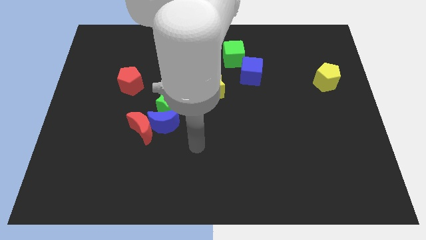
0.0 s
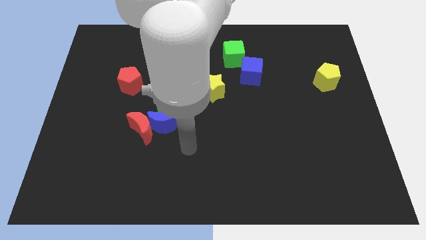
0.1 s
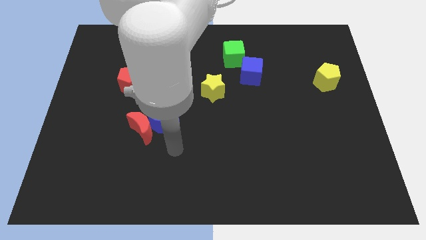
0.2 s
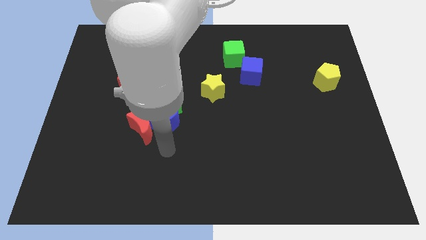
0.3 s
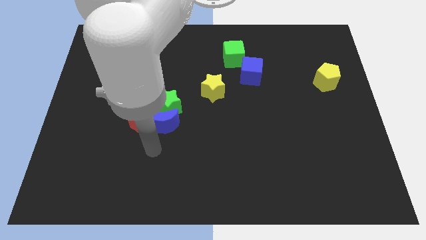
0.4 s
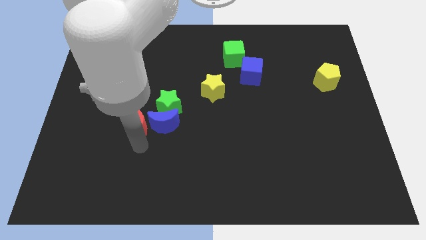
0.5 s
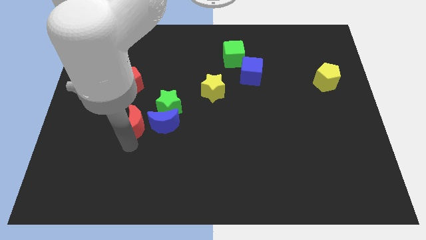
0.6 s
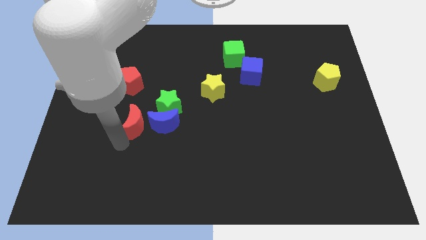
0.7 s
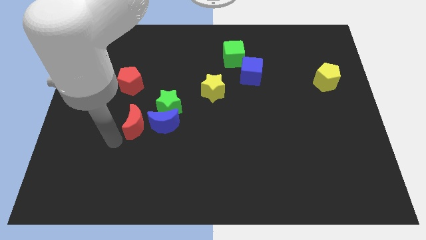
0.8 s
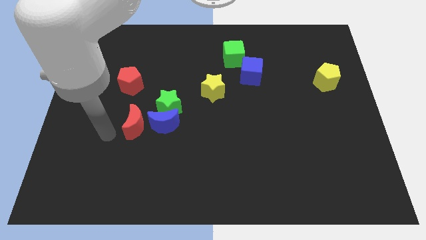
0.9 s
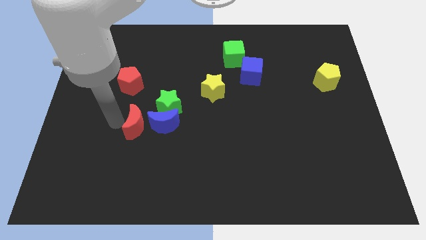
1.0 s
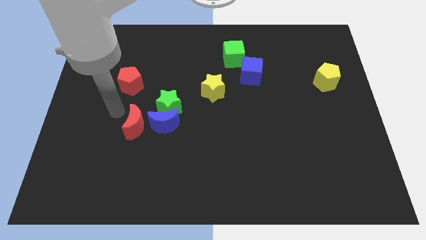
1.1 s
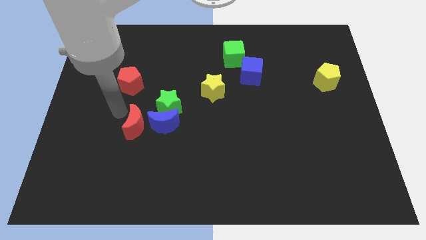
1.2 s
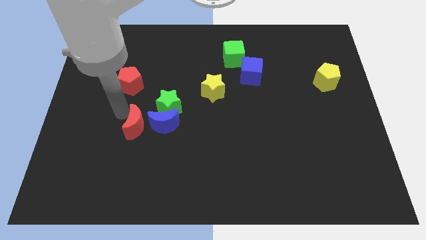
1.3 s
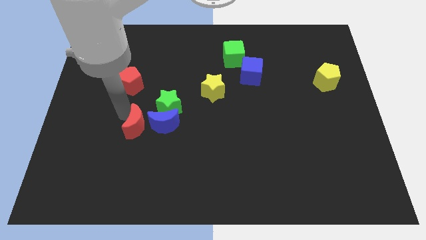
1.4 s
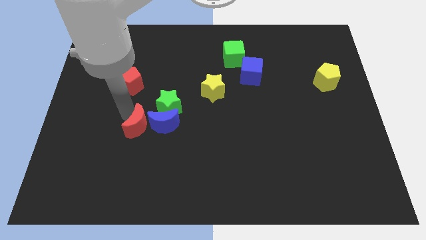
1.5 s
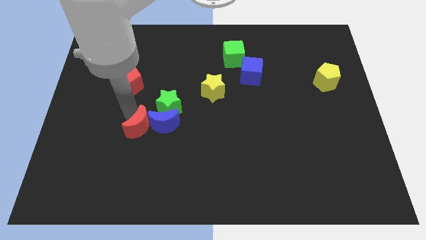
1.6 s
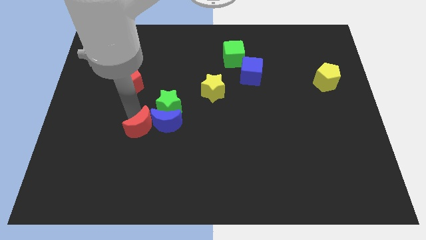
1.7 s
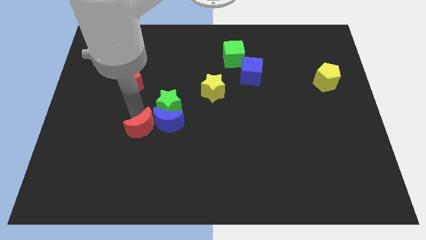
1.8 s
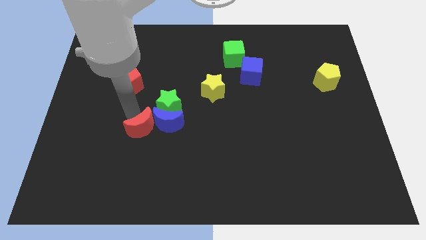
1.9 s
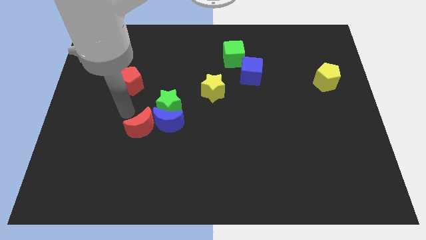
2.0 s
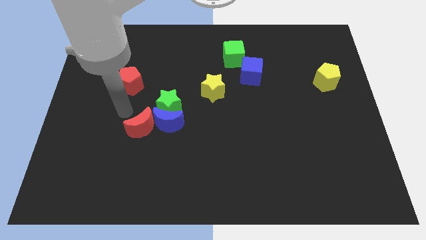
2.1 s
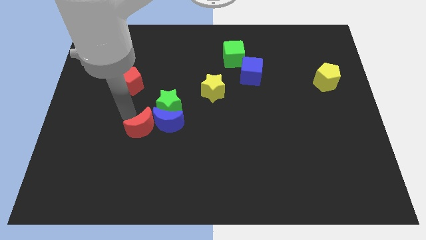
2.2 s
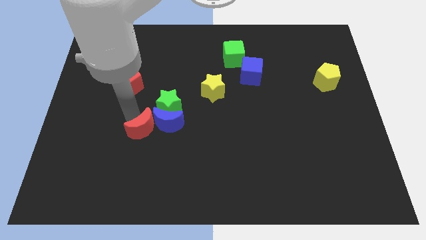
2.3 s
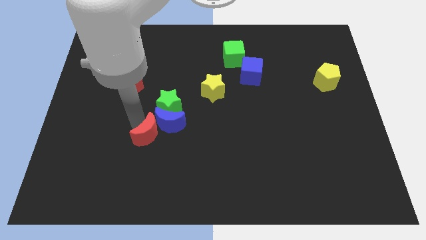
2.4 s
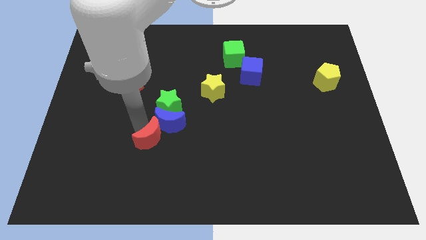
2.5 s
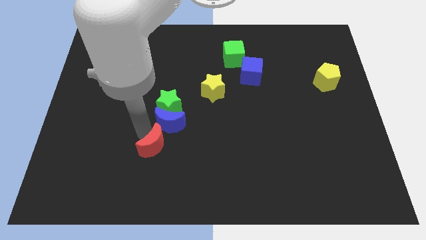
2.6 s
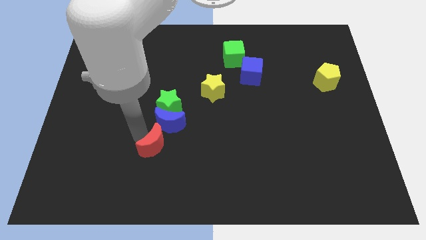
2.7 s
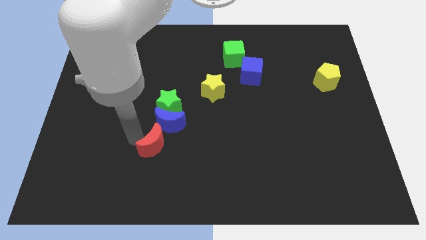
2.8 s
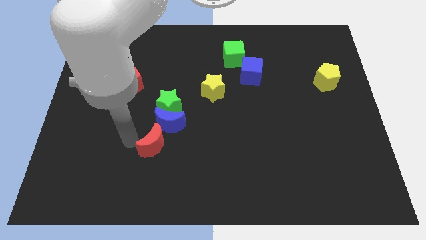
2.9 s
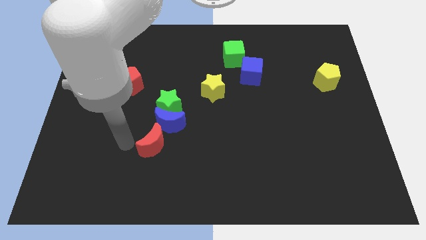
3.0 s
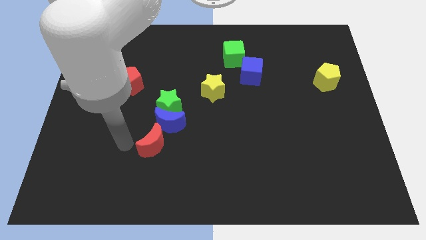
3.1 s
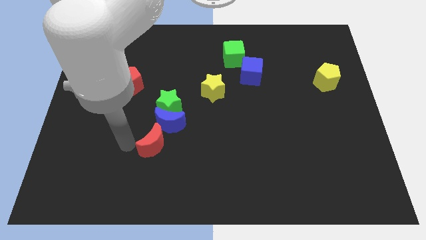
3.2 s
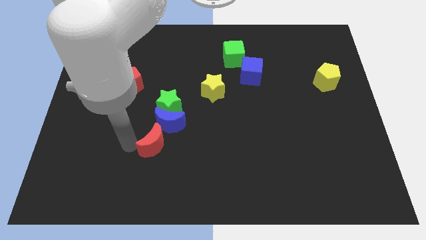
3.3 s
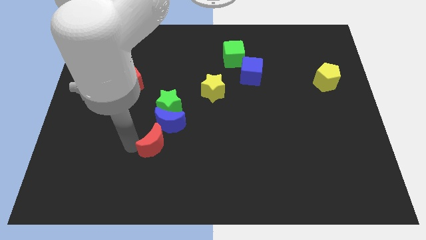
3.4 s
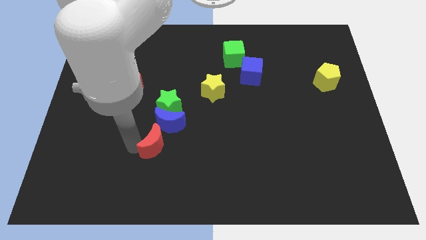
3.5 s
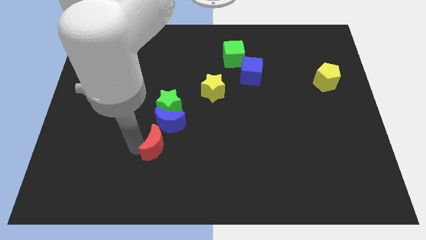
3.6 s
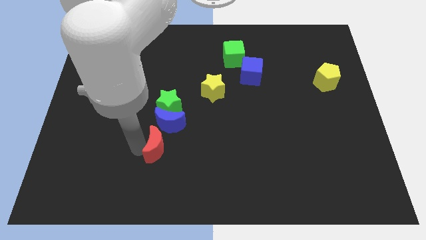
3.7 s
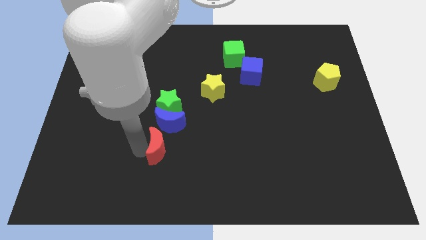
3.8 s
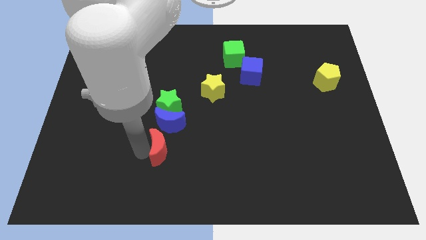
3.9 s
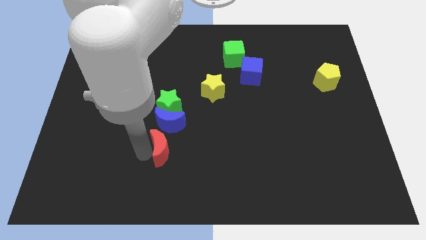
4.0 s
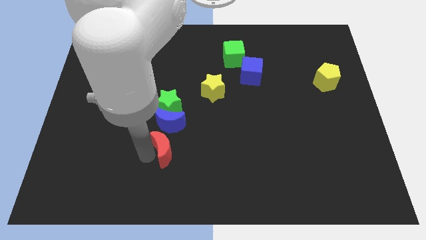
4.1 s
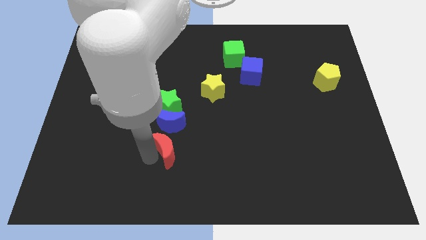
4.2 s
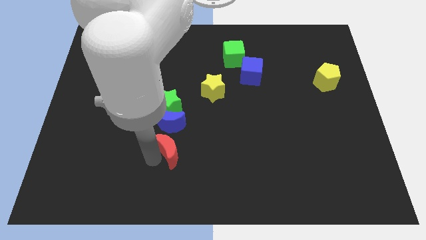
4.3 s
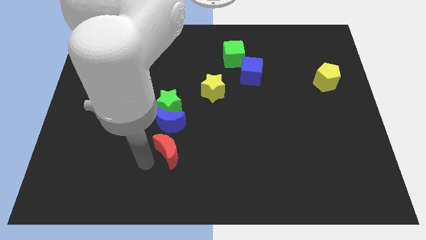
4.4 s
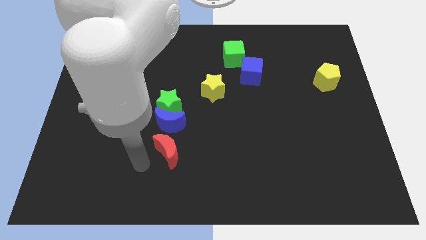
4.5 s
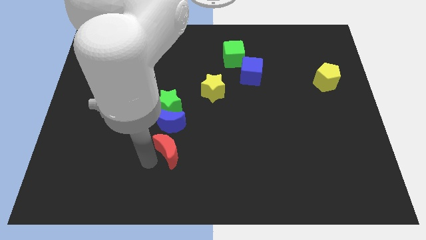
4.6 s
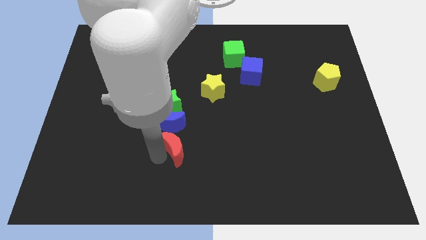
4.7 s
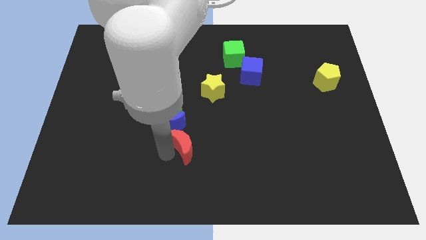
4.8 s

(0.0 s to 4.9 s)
slightly move the red moon right

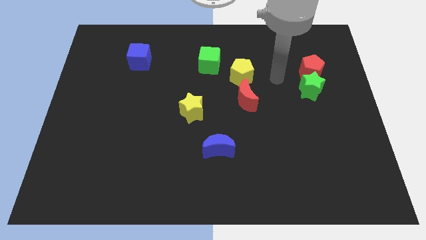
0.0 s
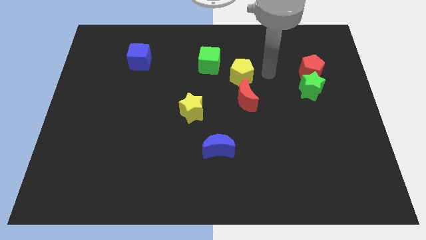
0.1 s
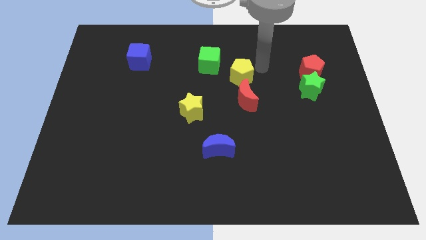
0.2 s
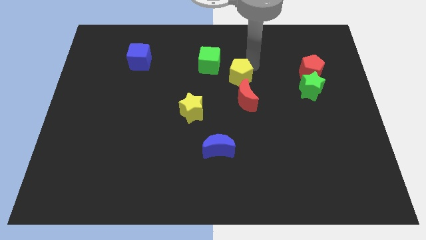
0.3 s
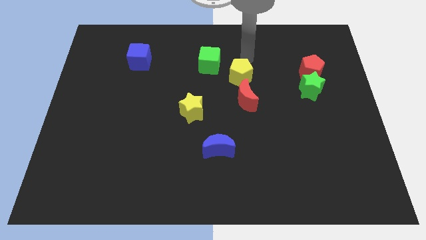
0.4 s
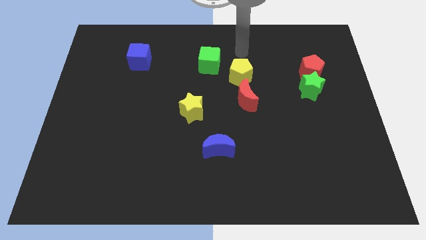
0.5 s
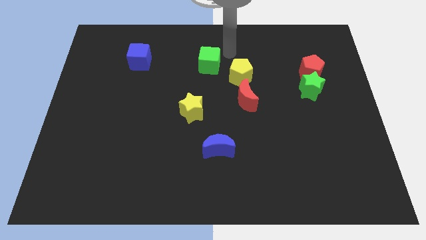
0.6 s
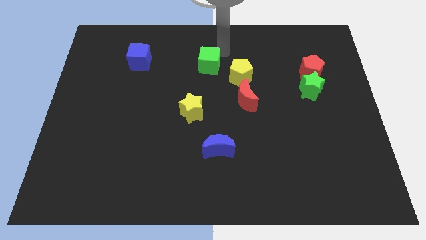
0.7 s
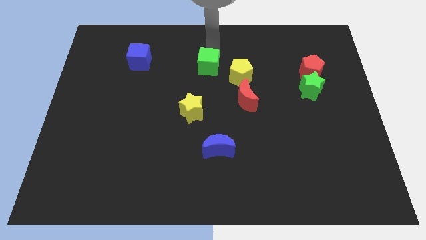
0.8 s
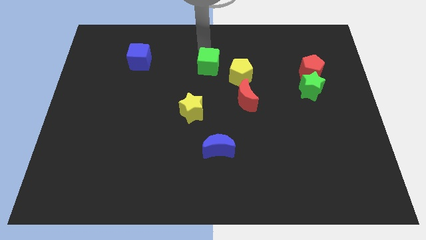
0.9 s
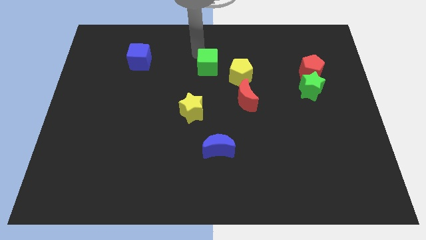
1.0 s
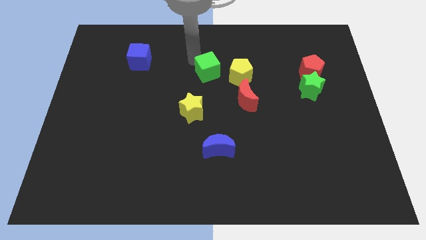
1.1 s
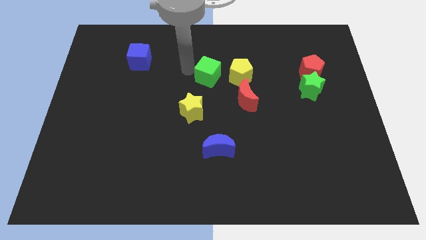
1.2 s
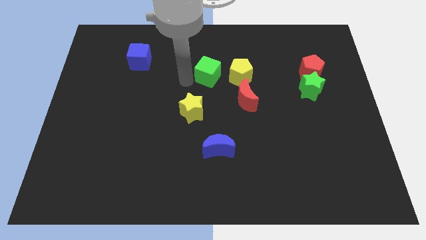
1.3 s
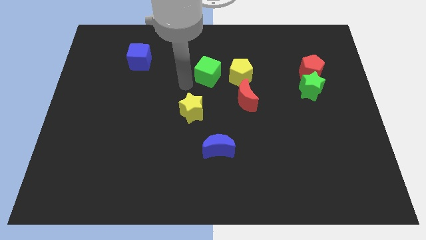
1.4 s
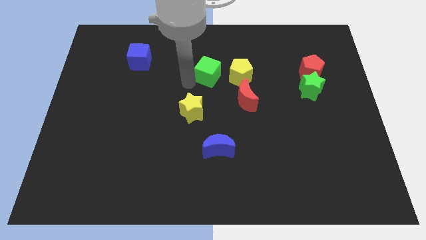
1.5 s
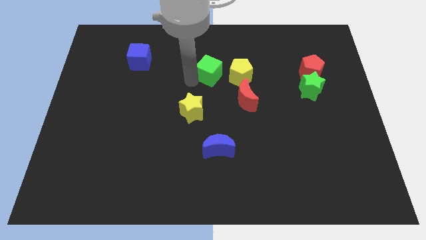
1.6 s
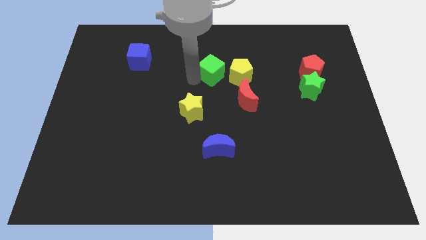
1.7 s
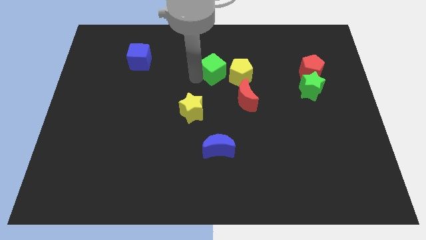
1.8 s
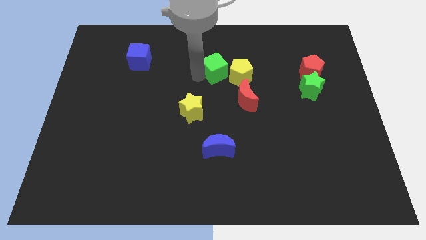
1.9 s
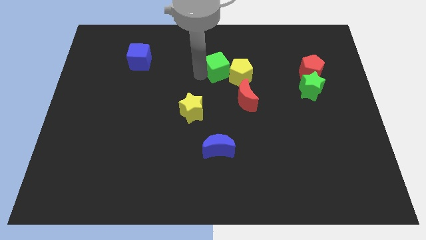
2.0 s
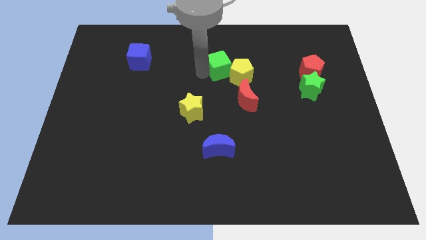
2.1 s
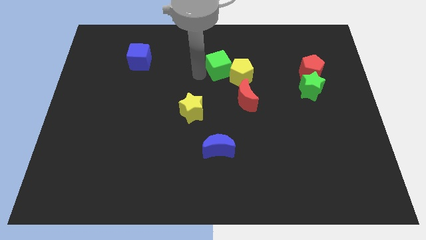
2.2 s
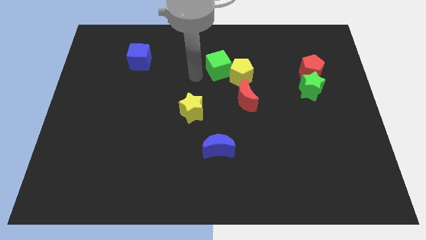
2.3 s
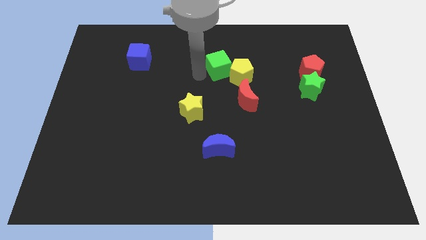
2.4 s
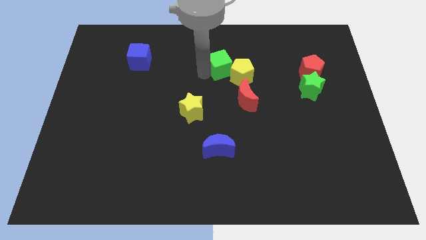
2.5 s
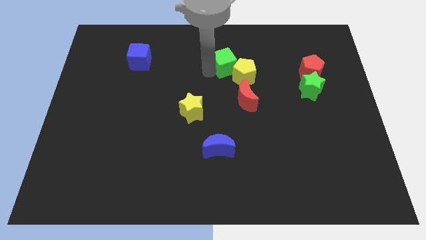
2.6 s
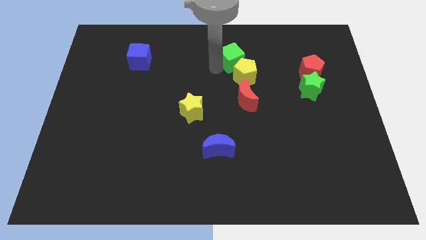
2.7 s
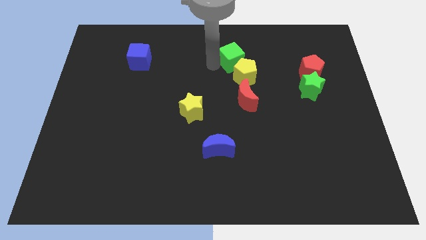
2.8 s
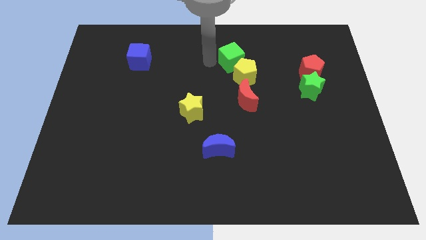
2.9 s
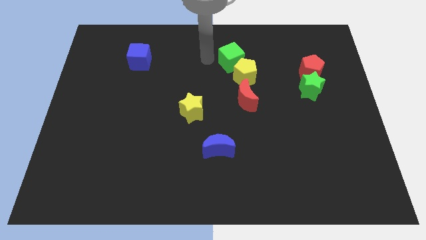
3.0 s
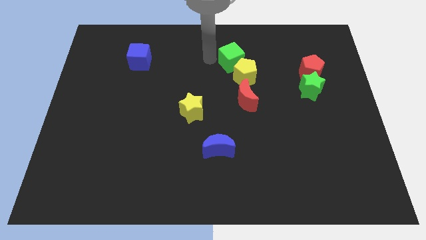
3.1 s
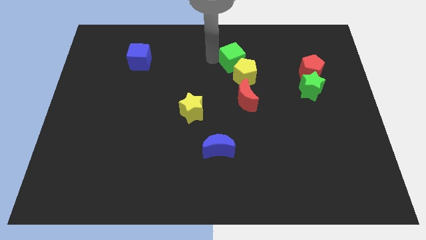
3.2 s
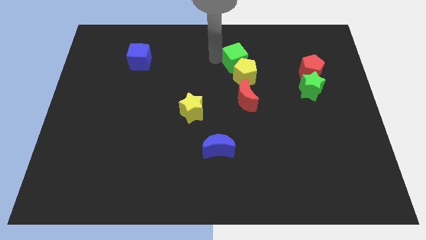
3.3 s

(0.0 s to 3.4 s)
push the green cube slightly right

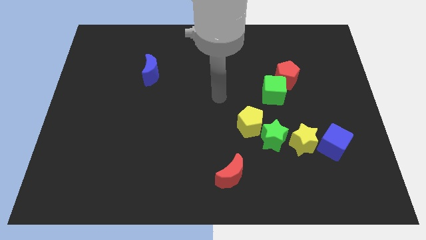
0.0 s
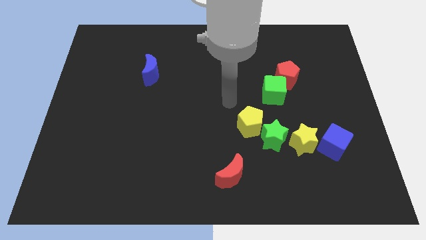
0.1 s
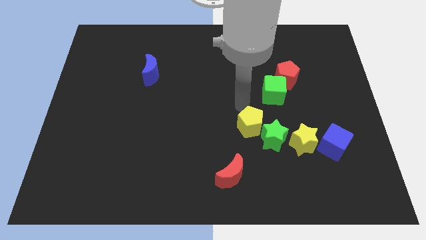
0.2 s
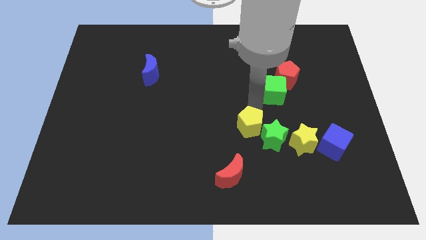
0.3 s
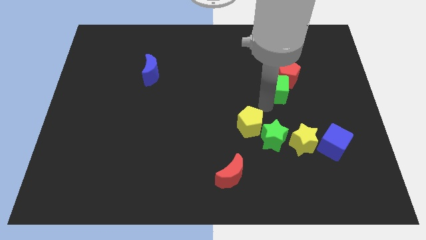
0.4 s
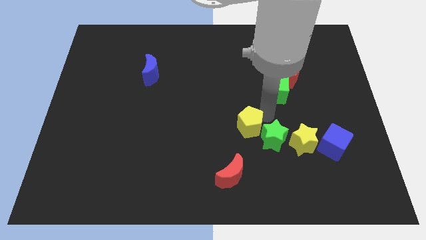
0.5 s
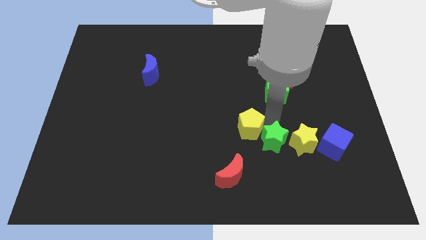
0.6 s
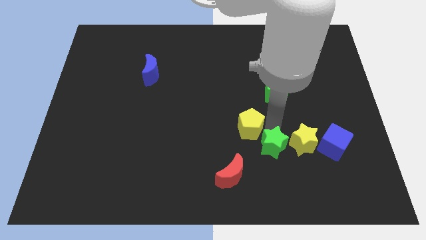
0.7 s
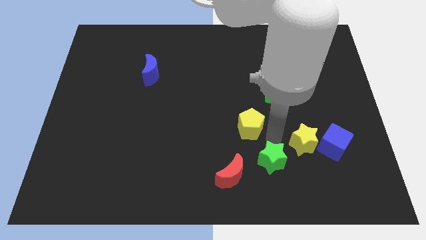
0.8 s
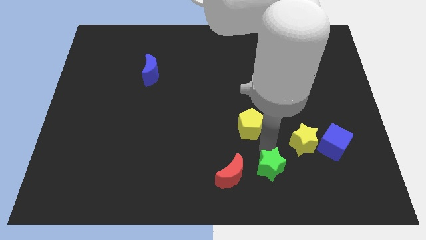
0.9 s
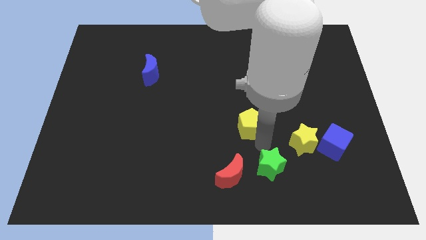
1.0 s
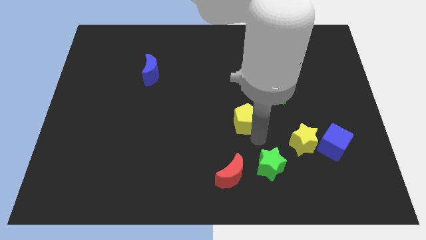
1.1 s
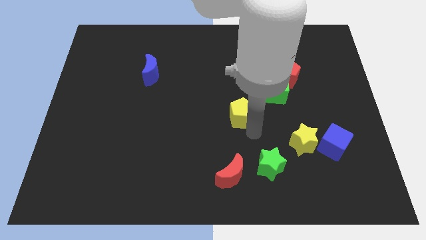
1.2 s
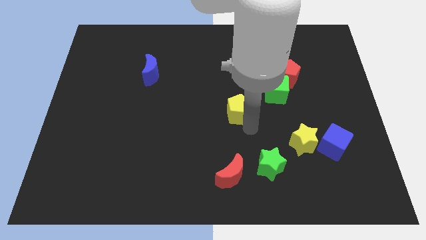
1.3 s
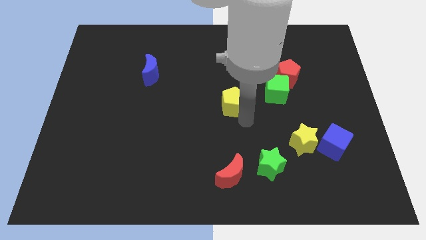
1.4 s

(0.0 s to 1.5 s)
slide the yellow pentagon a bit upwards and then left
